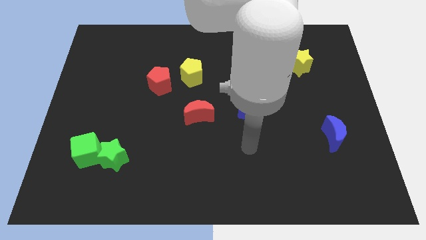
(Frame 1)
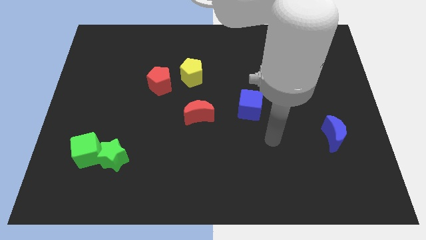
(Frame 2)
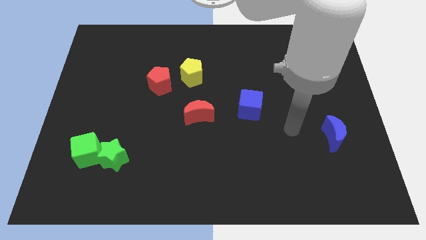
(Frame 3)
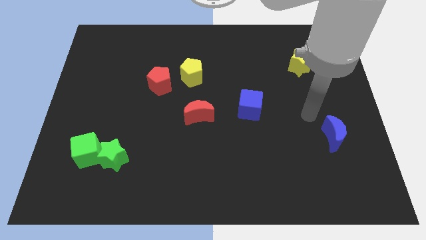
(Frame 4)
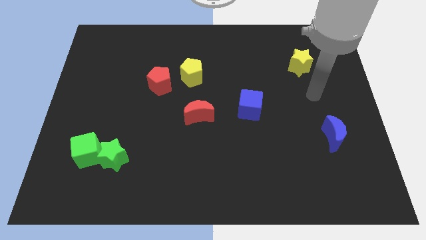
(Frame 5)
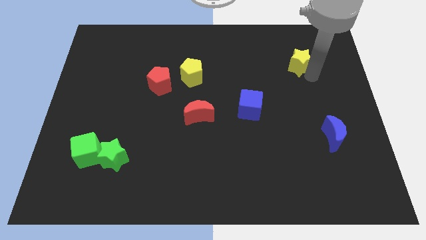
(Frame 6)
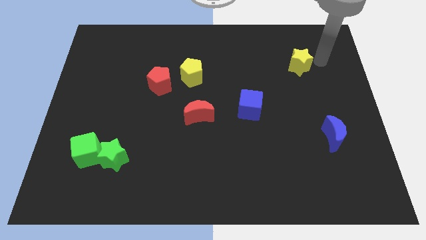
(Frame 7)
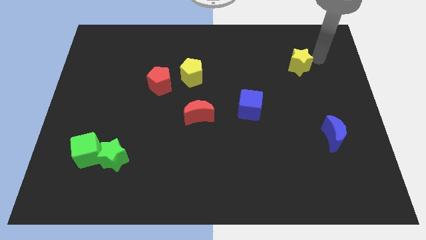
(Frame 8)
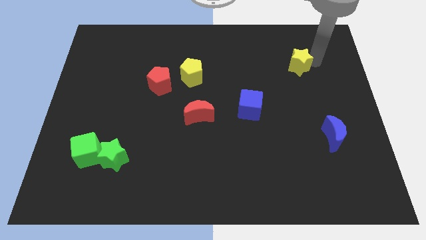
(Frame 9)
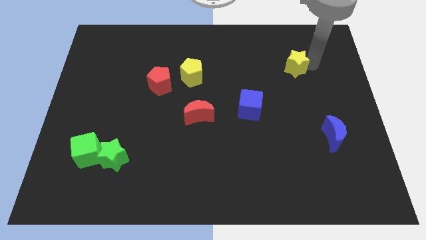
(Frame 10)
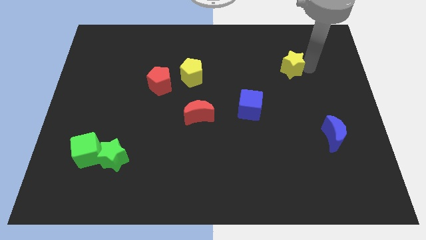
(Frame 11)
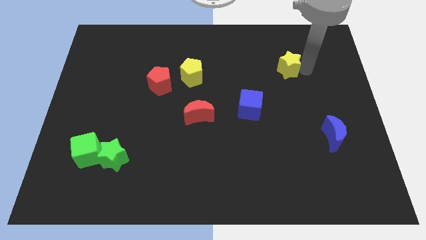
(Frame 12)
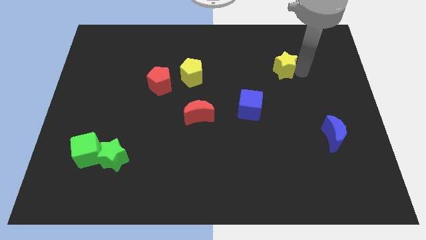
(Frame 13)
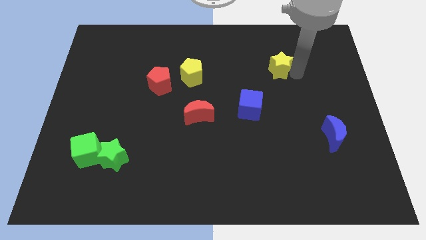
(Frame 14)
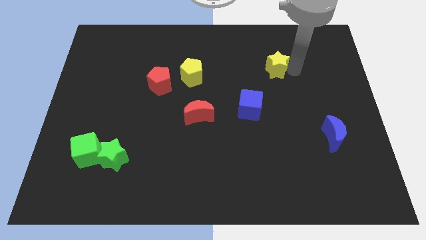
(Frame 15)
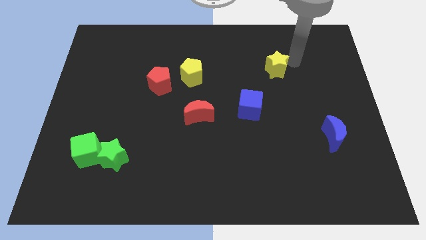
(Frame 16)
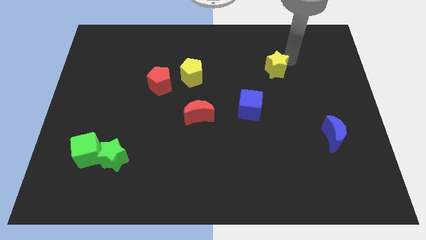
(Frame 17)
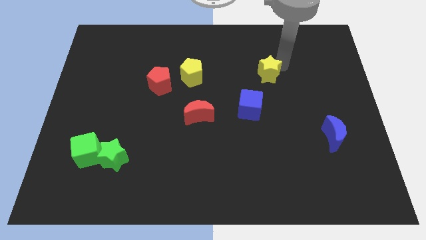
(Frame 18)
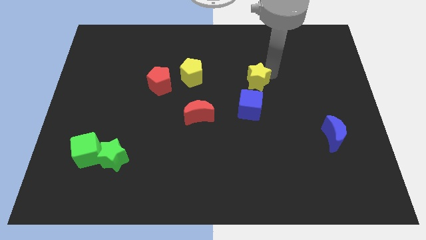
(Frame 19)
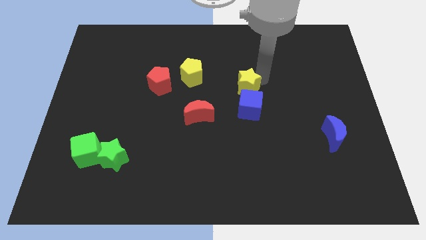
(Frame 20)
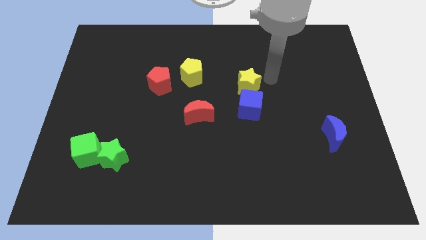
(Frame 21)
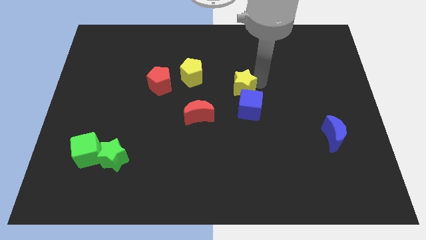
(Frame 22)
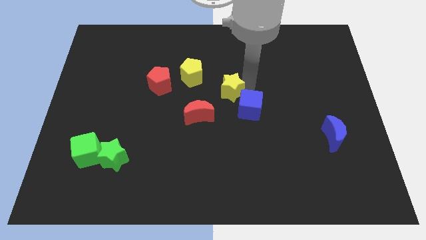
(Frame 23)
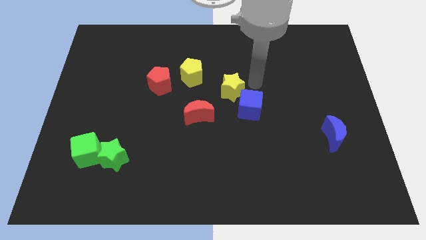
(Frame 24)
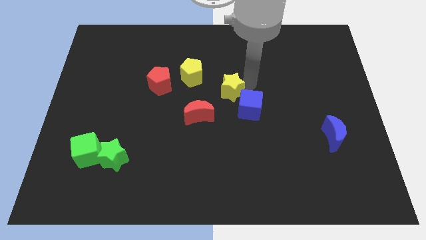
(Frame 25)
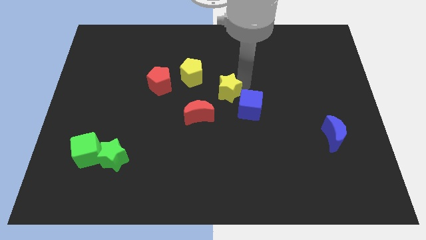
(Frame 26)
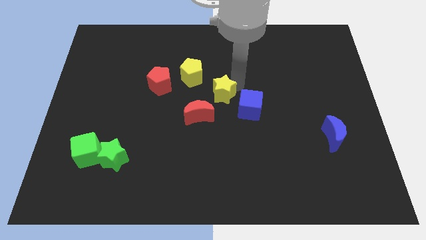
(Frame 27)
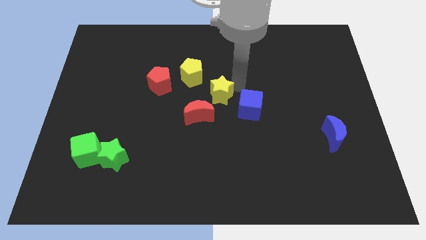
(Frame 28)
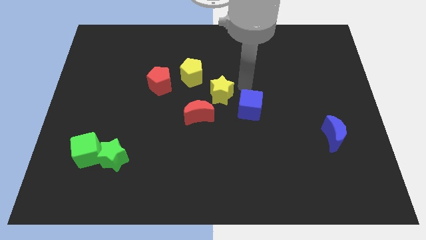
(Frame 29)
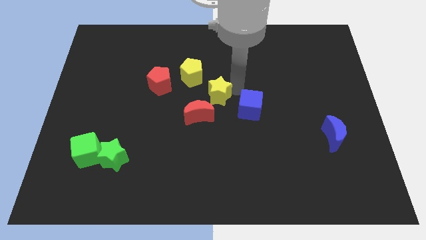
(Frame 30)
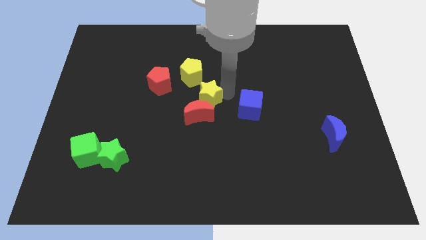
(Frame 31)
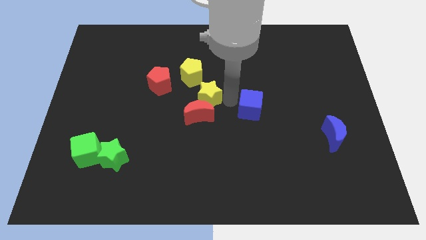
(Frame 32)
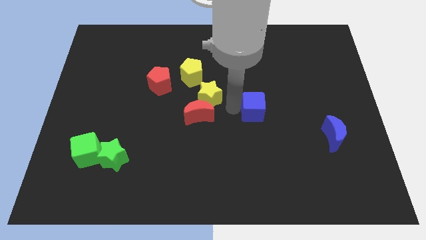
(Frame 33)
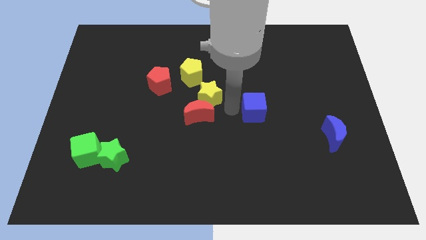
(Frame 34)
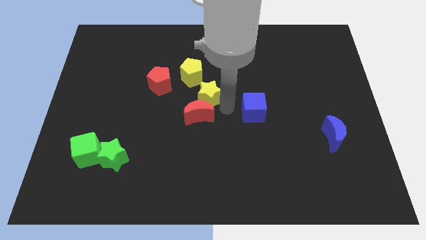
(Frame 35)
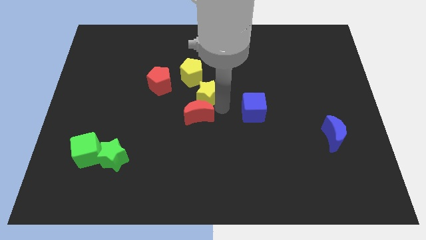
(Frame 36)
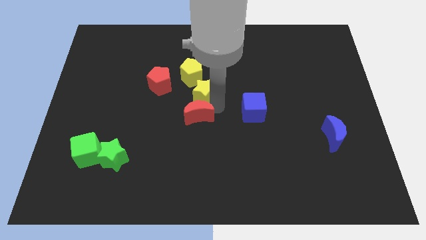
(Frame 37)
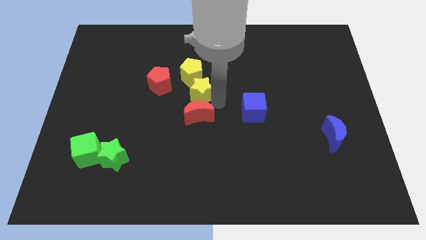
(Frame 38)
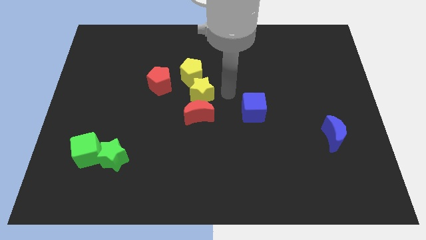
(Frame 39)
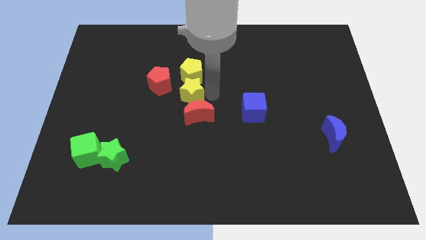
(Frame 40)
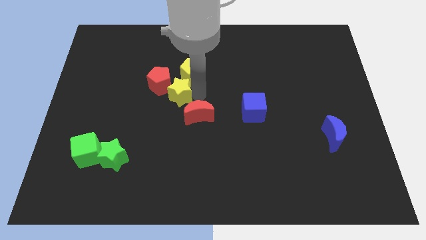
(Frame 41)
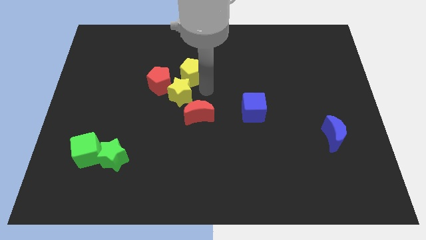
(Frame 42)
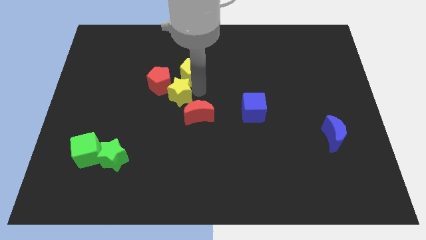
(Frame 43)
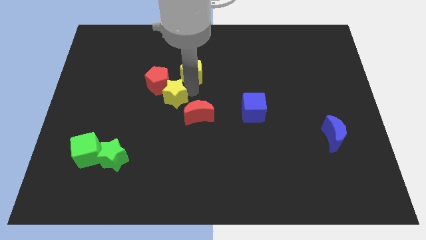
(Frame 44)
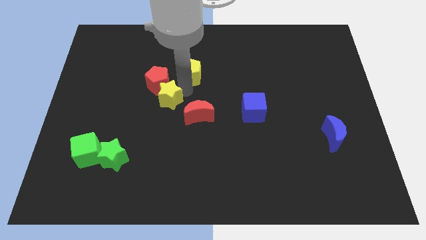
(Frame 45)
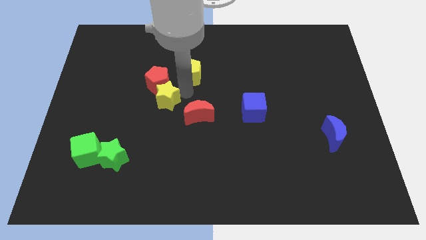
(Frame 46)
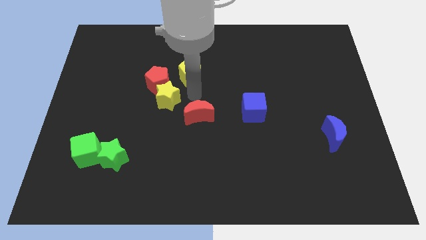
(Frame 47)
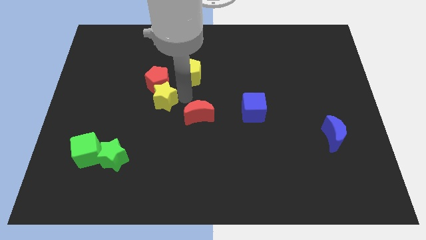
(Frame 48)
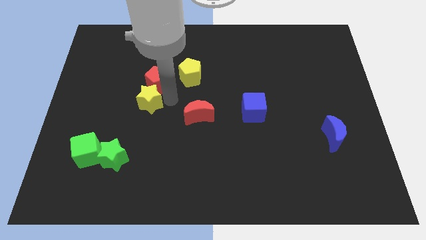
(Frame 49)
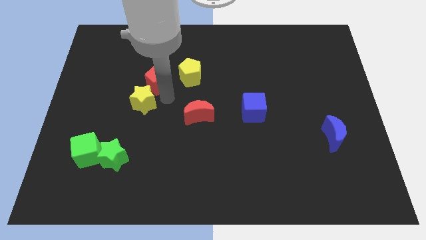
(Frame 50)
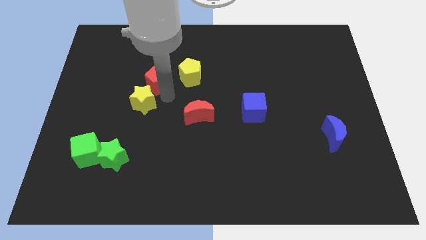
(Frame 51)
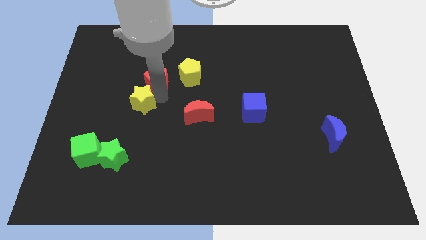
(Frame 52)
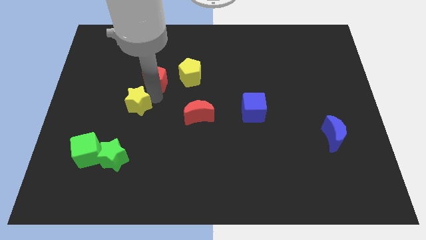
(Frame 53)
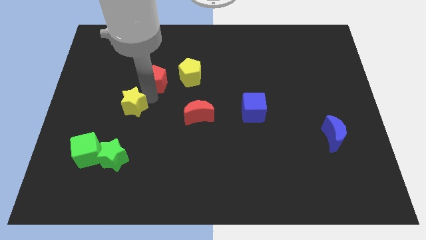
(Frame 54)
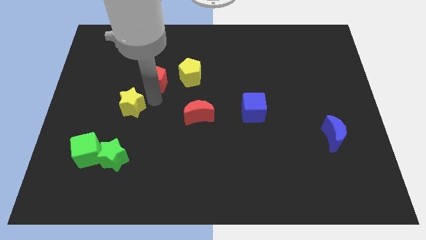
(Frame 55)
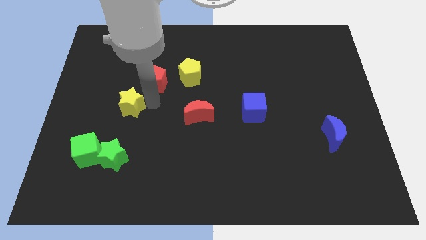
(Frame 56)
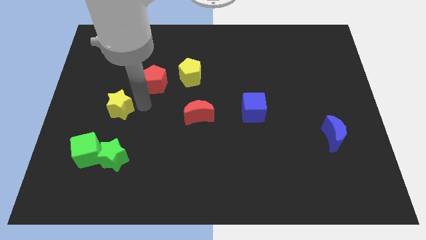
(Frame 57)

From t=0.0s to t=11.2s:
push the yellow star to the top of the green cube

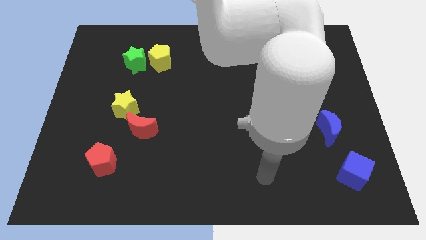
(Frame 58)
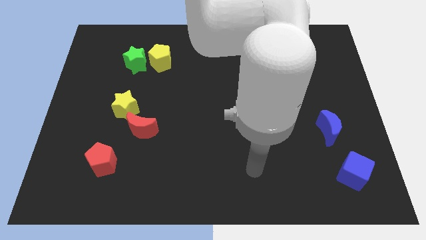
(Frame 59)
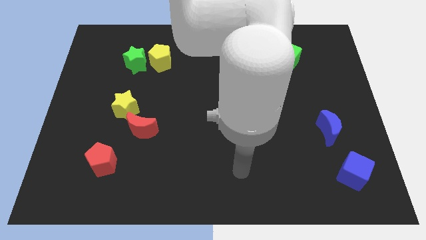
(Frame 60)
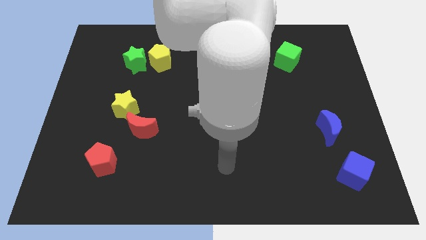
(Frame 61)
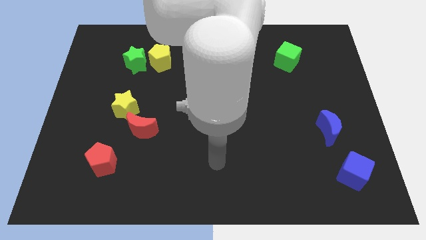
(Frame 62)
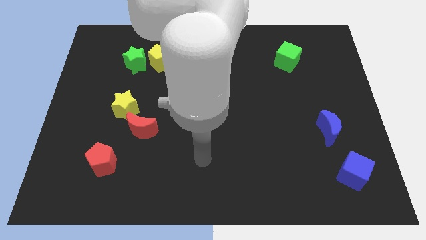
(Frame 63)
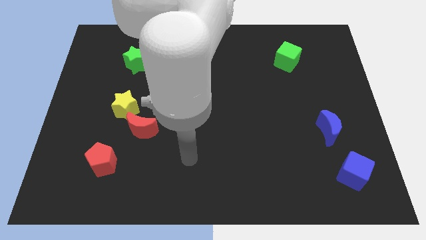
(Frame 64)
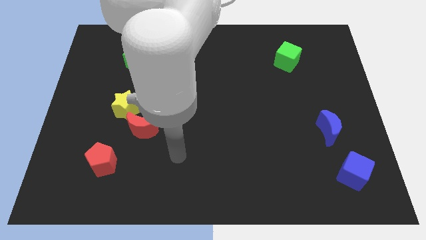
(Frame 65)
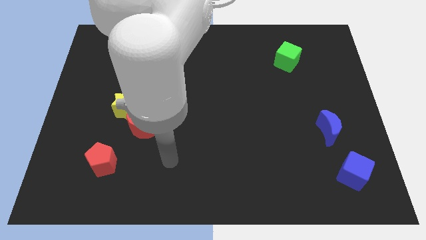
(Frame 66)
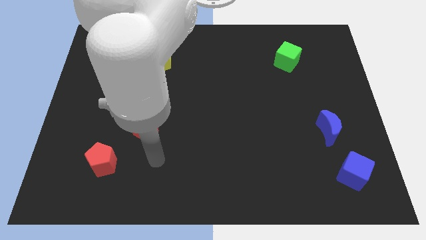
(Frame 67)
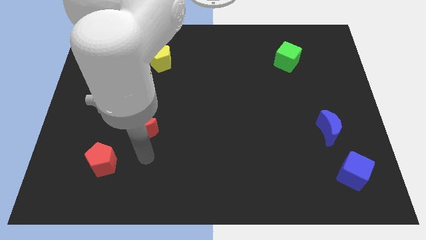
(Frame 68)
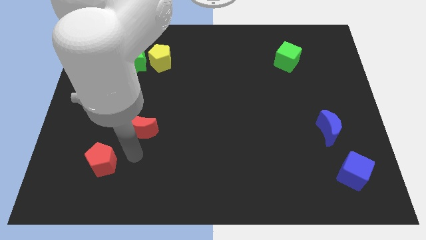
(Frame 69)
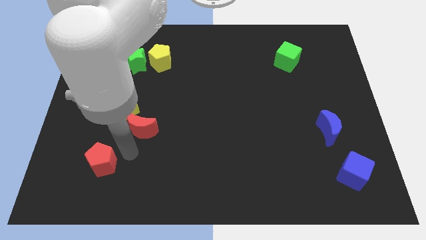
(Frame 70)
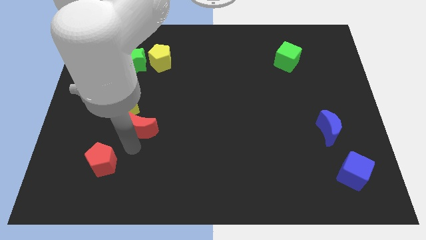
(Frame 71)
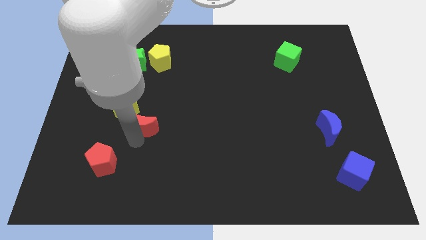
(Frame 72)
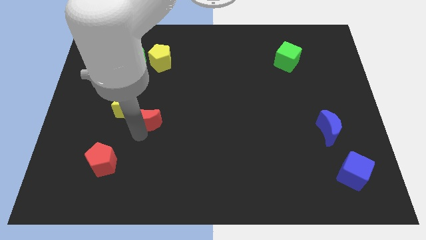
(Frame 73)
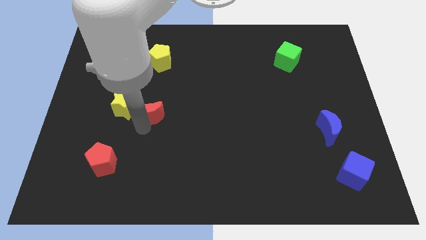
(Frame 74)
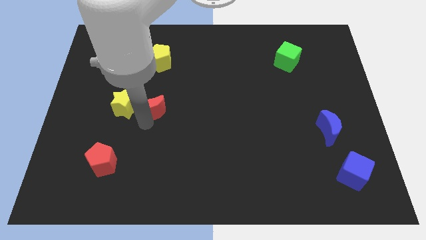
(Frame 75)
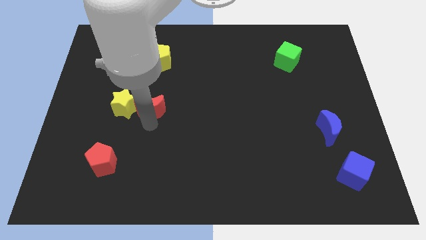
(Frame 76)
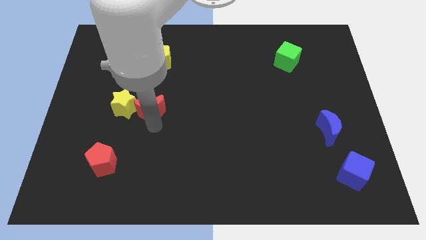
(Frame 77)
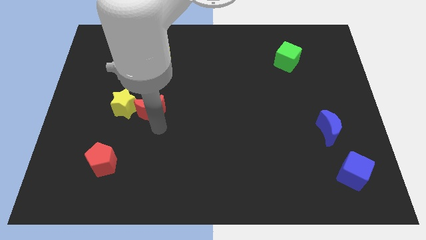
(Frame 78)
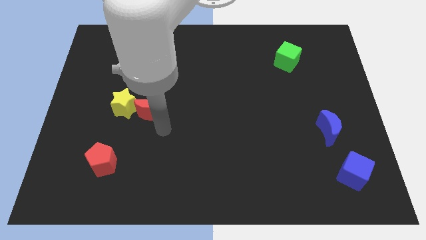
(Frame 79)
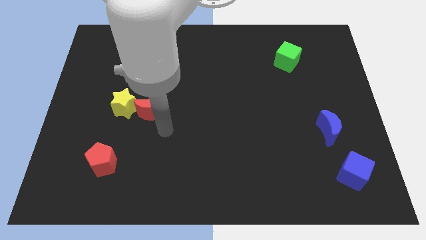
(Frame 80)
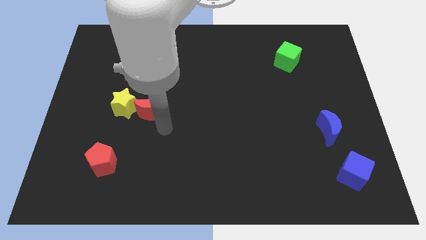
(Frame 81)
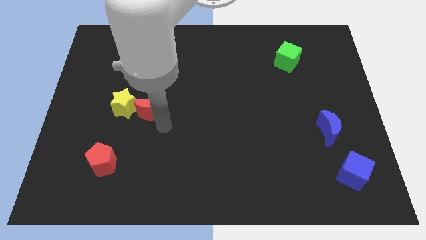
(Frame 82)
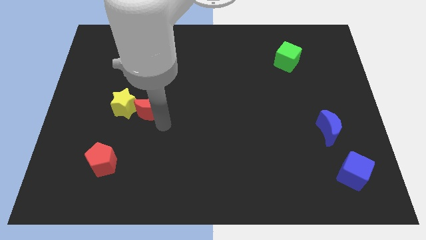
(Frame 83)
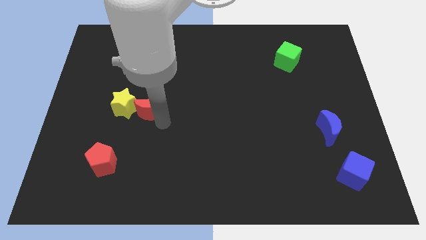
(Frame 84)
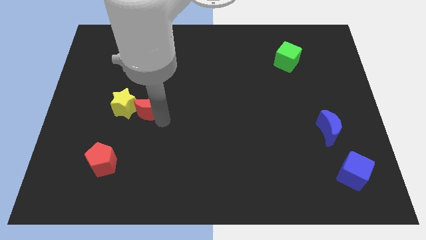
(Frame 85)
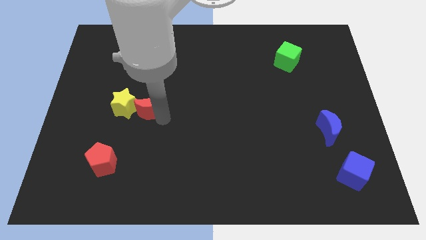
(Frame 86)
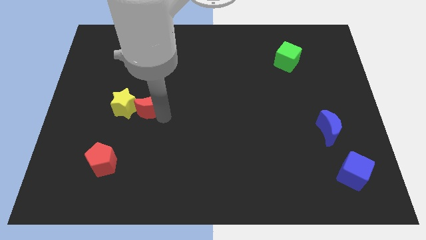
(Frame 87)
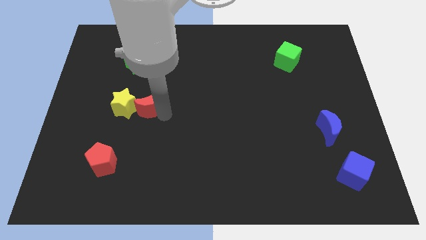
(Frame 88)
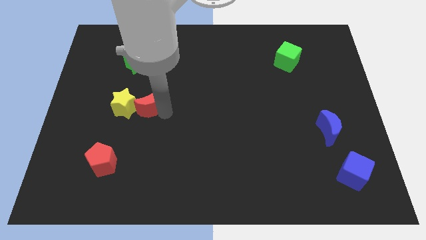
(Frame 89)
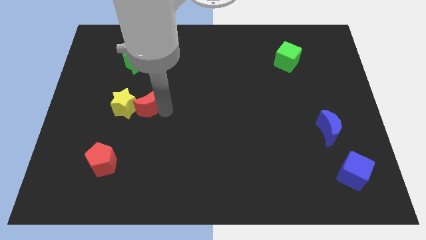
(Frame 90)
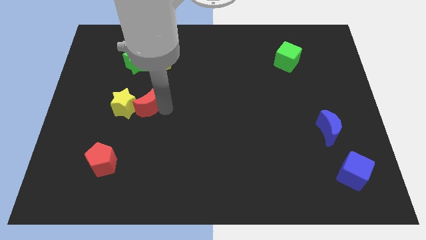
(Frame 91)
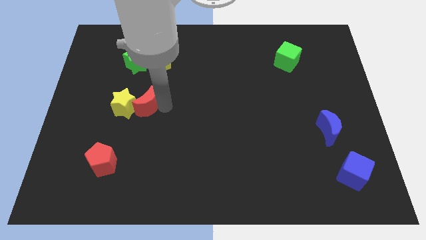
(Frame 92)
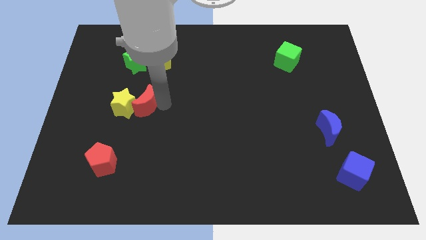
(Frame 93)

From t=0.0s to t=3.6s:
put the red moon to the bottom side of the green star
